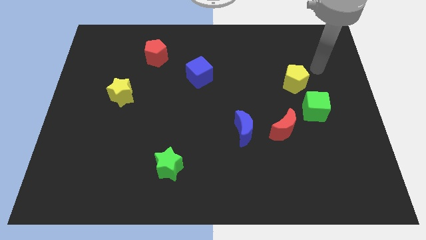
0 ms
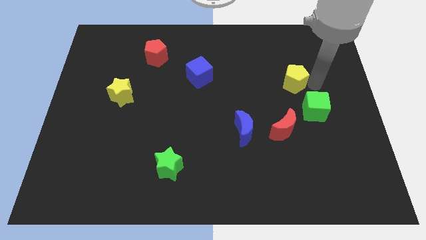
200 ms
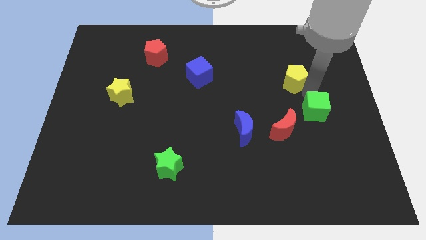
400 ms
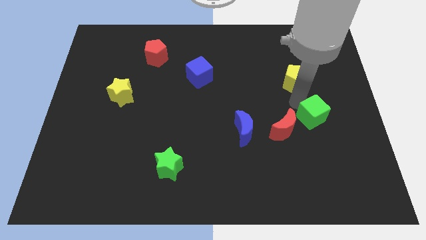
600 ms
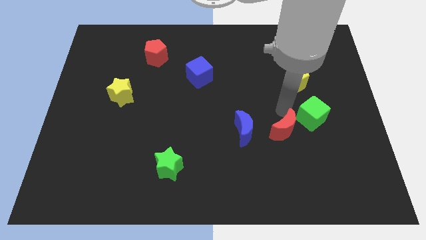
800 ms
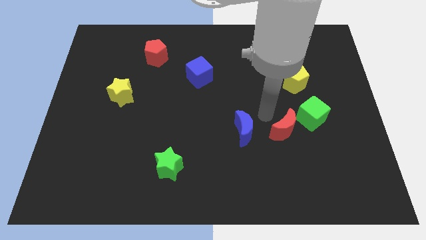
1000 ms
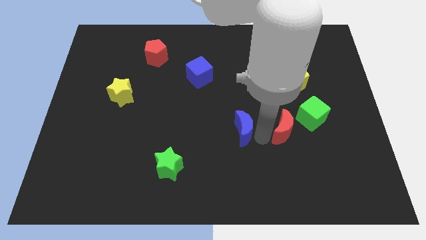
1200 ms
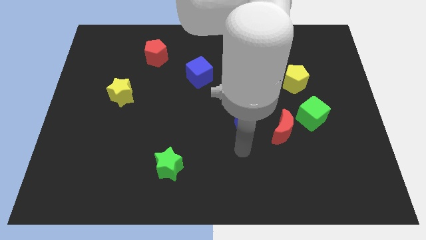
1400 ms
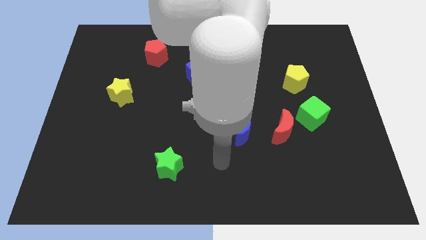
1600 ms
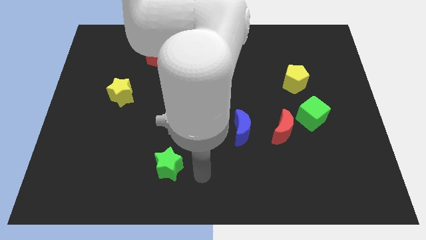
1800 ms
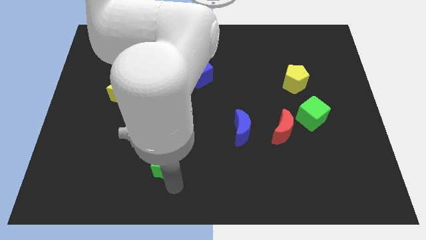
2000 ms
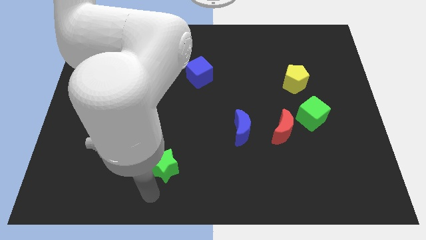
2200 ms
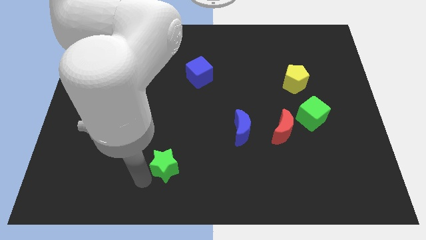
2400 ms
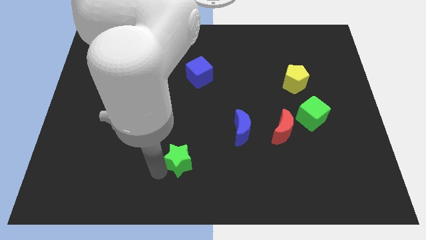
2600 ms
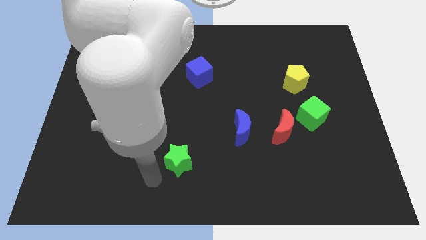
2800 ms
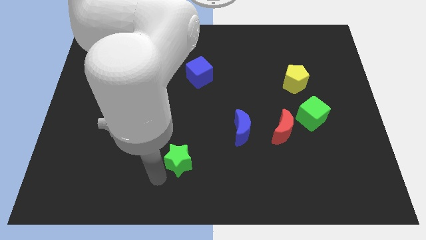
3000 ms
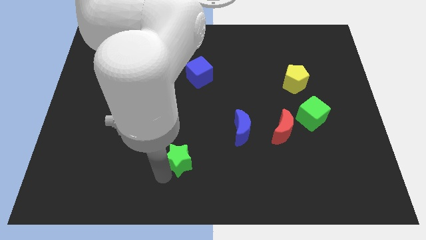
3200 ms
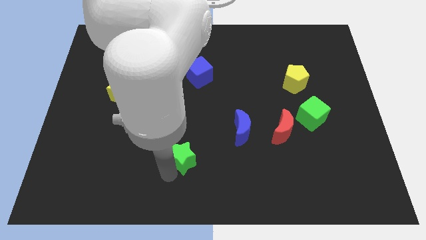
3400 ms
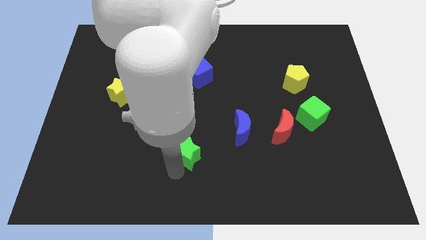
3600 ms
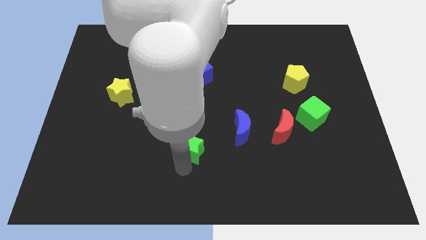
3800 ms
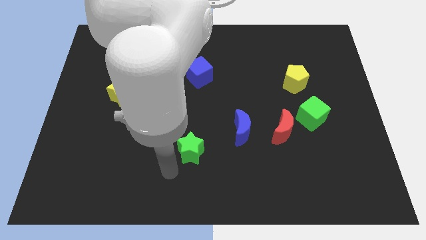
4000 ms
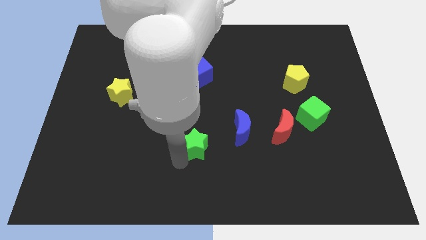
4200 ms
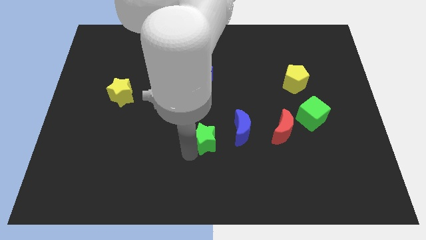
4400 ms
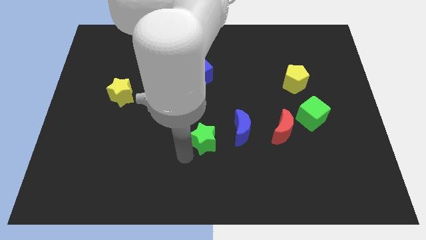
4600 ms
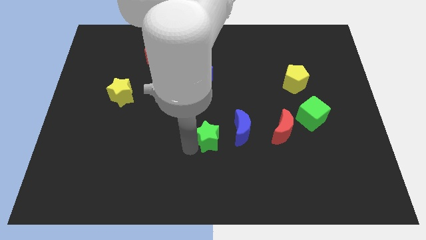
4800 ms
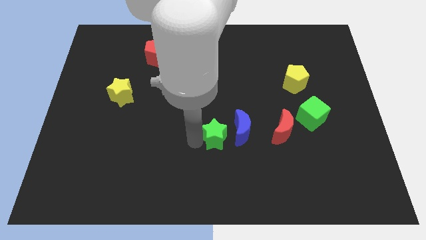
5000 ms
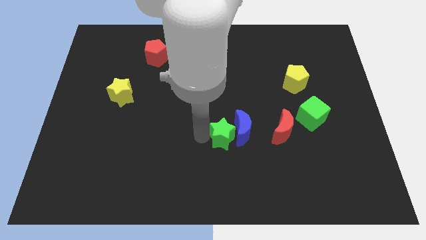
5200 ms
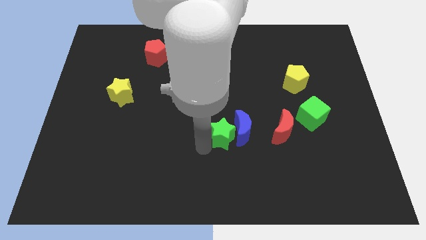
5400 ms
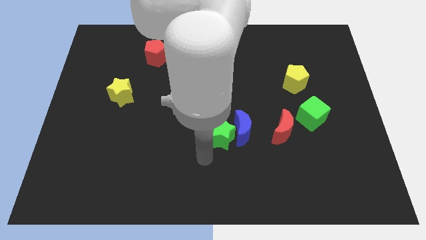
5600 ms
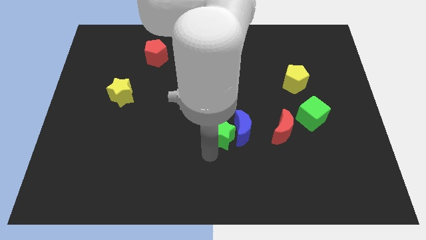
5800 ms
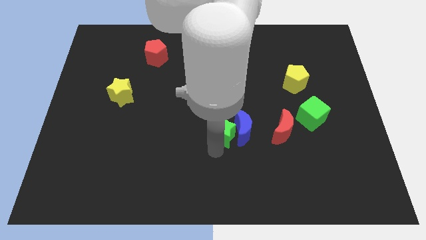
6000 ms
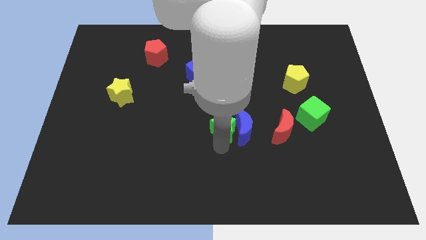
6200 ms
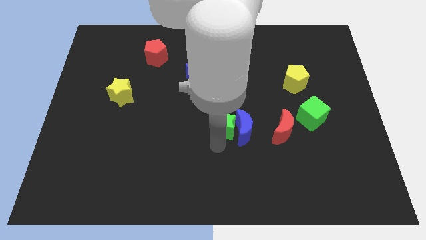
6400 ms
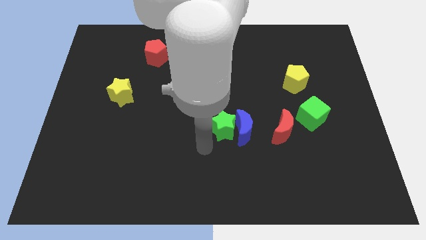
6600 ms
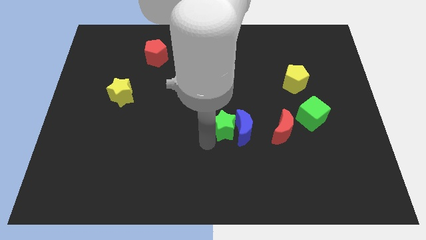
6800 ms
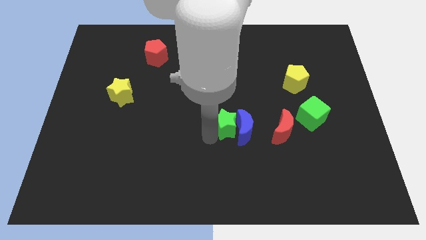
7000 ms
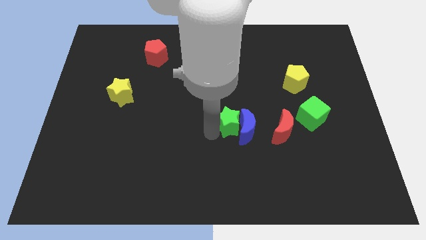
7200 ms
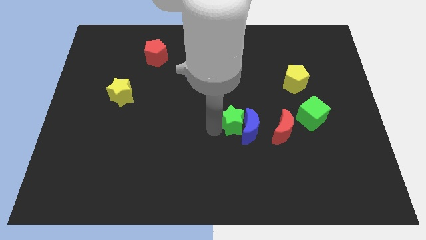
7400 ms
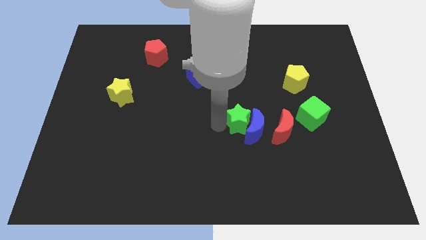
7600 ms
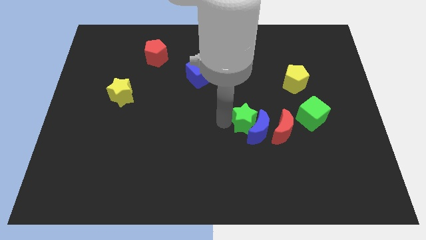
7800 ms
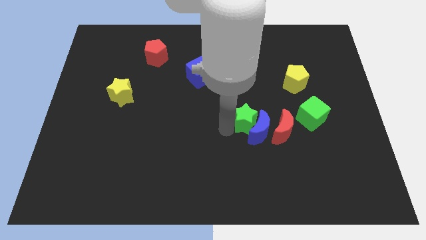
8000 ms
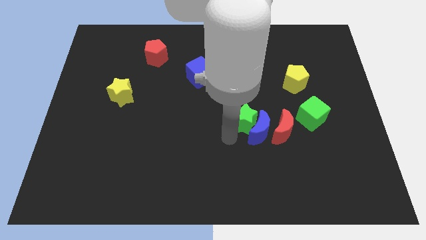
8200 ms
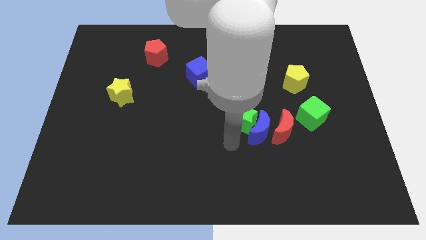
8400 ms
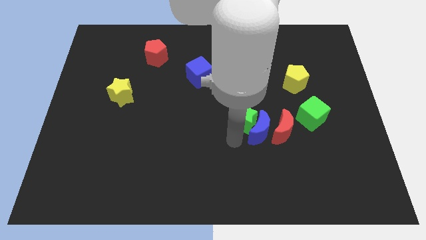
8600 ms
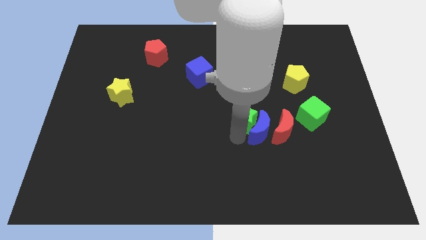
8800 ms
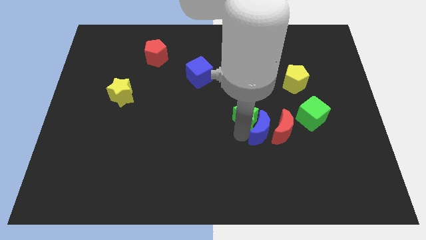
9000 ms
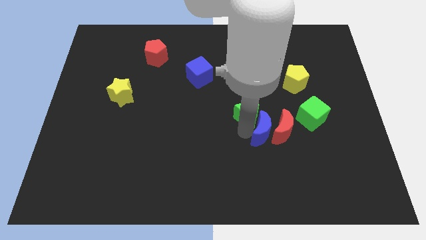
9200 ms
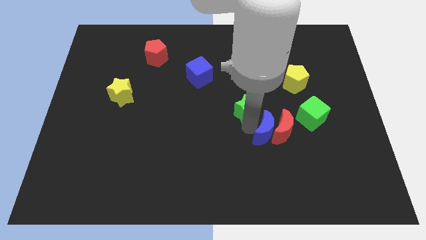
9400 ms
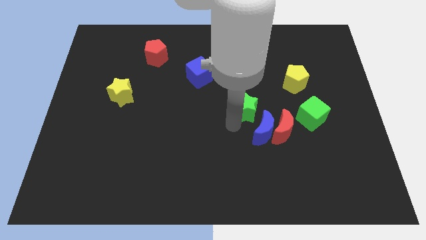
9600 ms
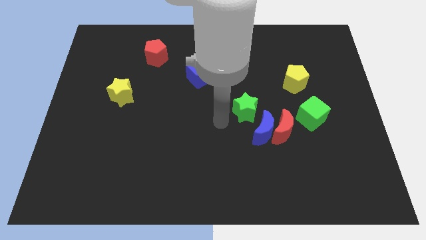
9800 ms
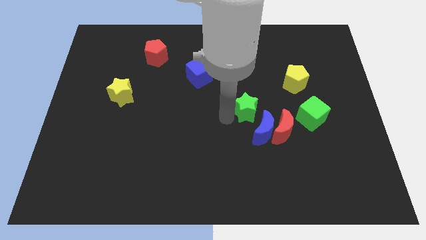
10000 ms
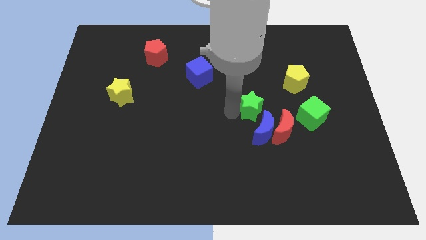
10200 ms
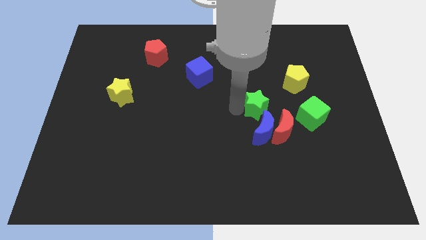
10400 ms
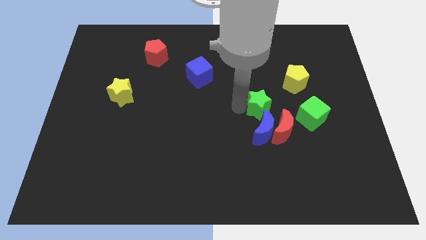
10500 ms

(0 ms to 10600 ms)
slide the green star to the bottom left of the yellow pentagon

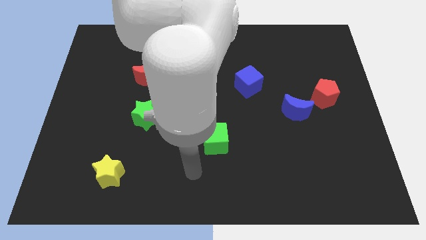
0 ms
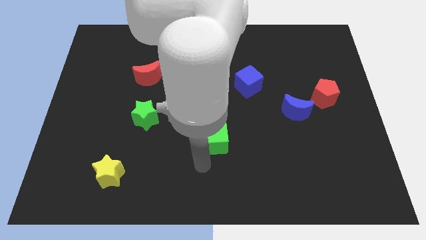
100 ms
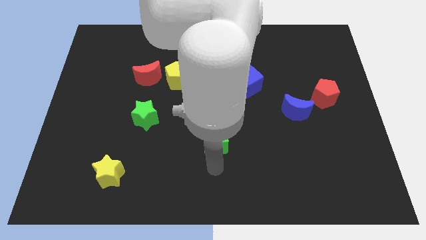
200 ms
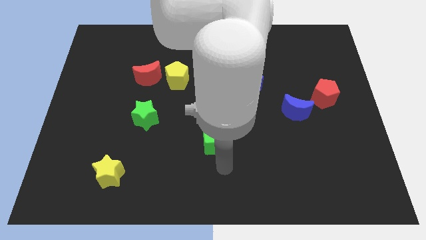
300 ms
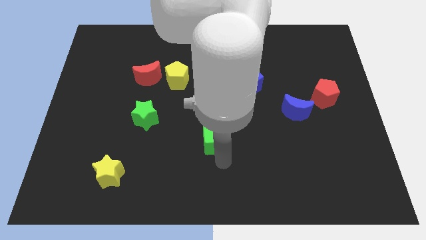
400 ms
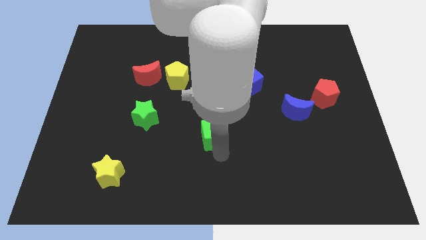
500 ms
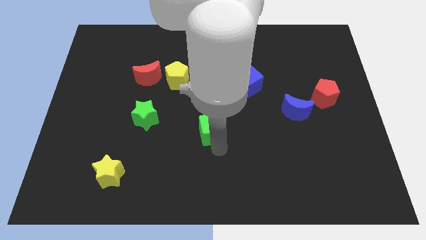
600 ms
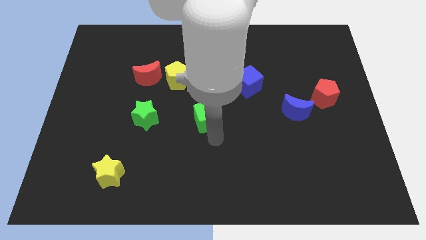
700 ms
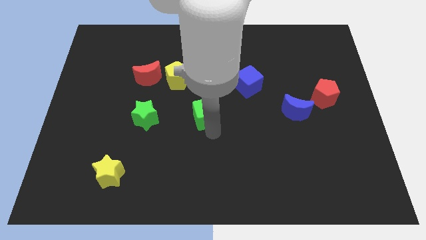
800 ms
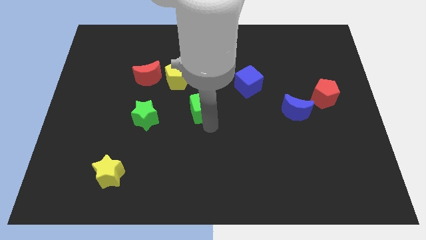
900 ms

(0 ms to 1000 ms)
put the green cube to the bottom right of the yellow pentagon
